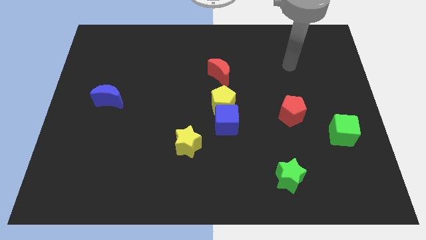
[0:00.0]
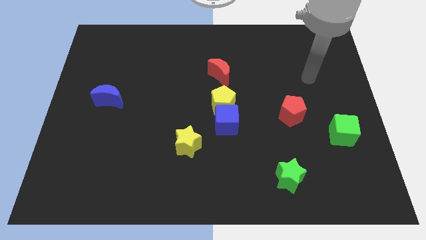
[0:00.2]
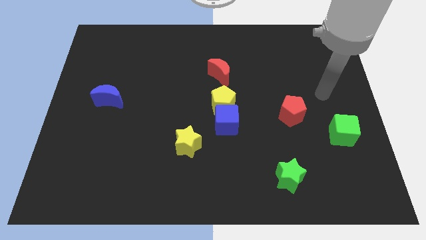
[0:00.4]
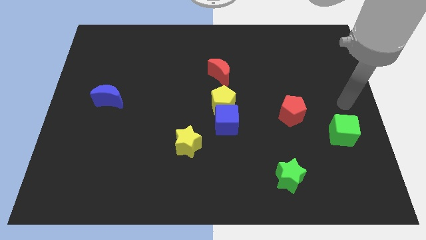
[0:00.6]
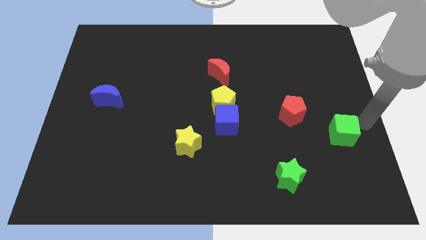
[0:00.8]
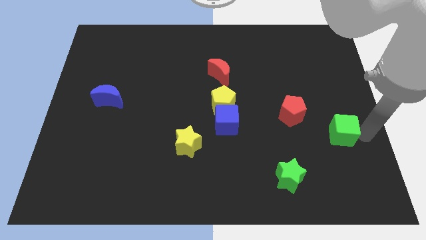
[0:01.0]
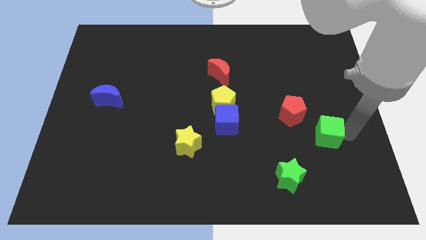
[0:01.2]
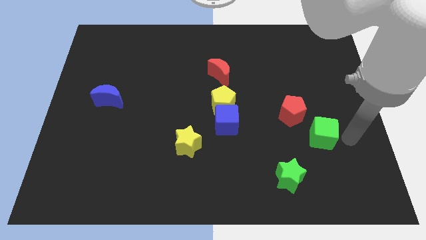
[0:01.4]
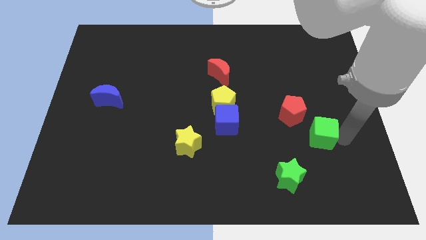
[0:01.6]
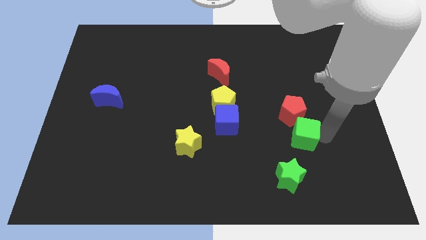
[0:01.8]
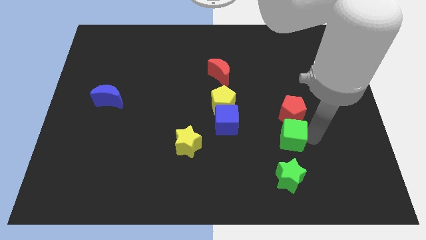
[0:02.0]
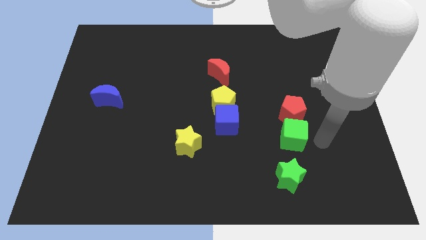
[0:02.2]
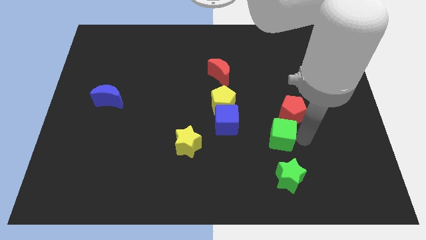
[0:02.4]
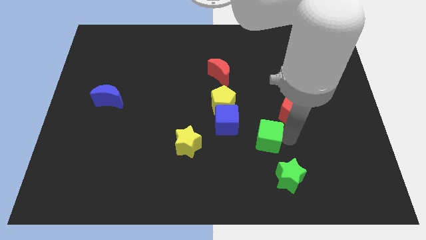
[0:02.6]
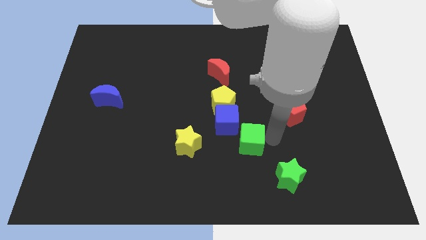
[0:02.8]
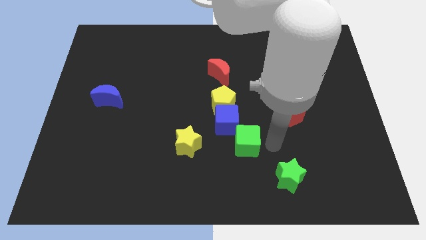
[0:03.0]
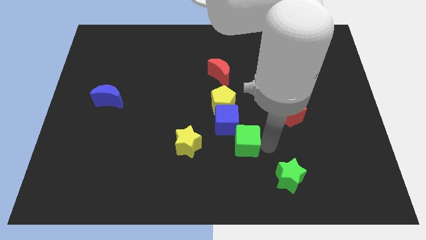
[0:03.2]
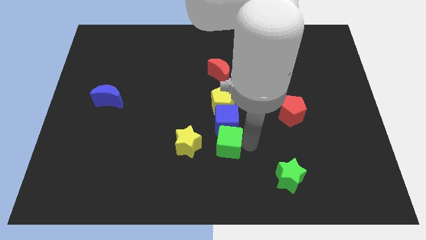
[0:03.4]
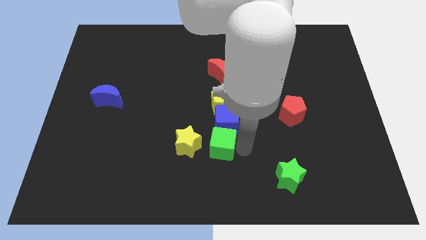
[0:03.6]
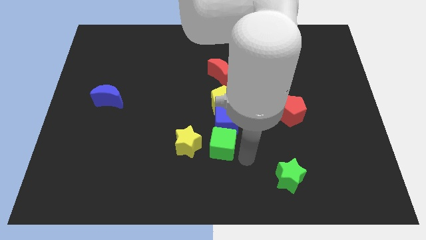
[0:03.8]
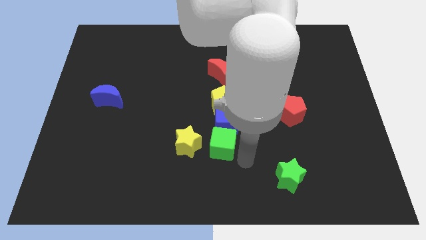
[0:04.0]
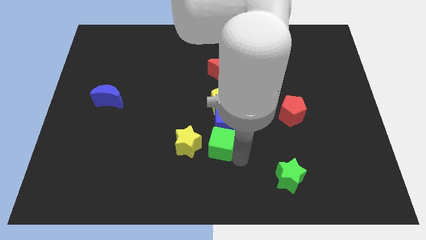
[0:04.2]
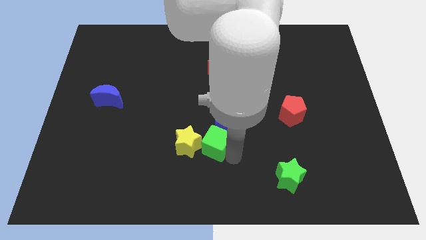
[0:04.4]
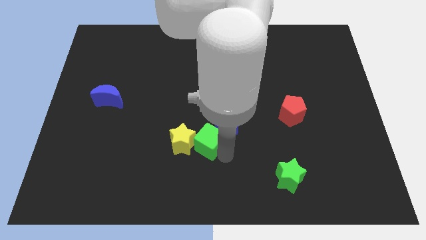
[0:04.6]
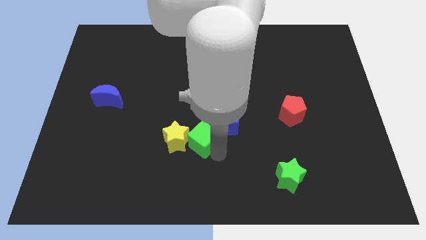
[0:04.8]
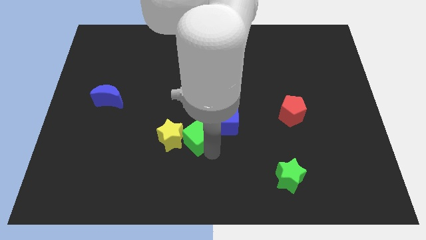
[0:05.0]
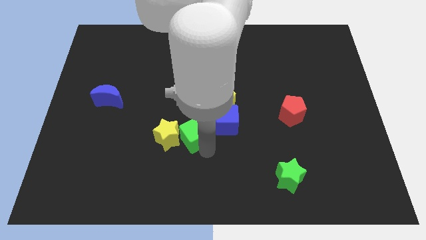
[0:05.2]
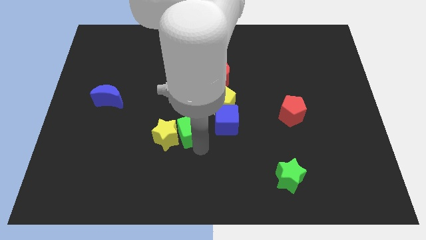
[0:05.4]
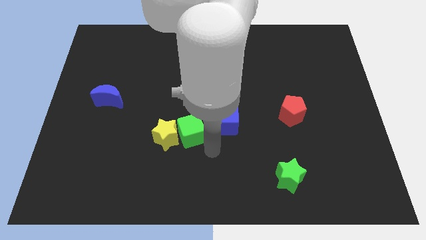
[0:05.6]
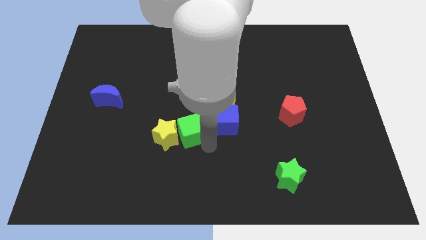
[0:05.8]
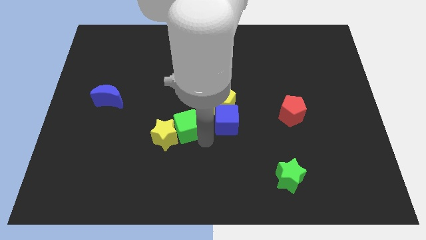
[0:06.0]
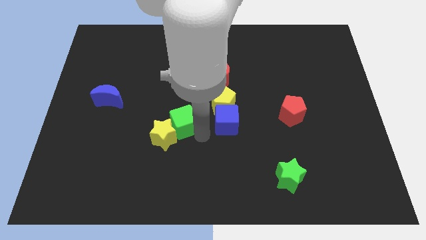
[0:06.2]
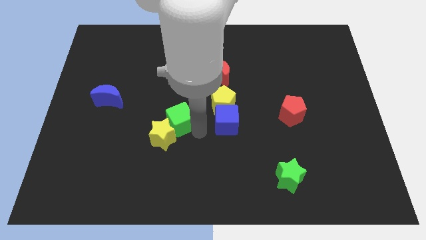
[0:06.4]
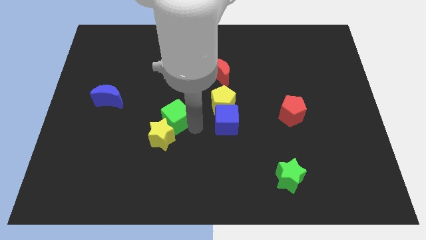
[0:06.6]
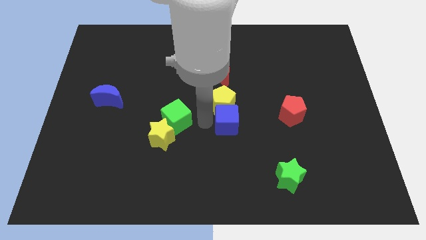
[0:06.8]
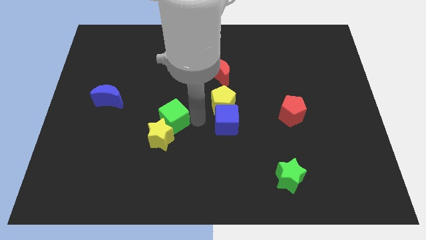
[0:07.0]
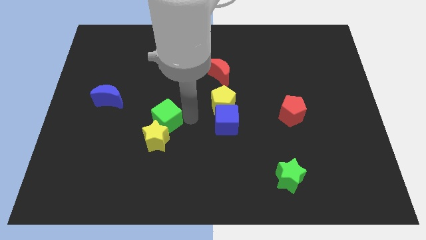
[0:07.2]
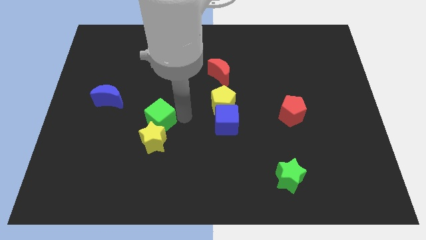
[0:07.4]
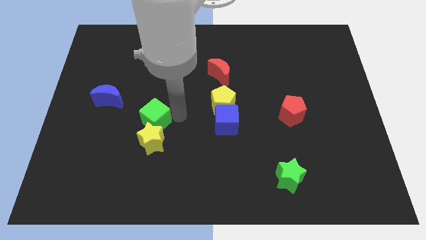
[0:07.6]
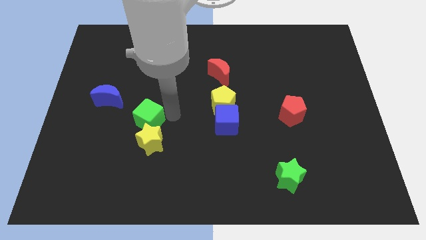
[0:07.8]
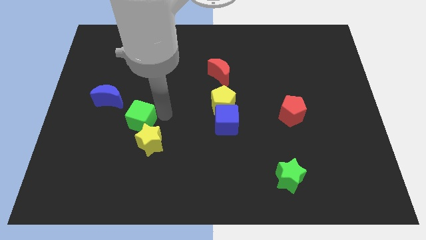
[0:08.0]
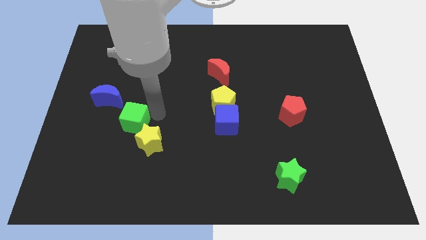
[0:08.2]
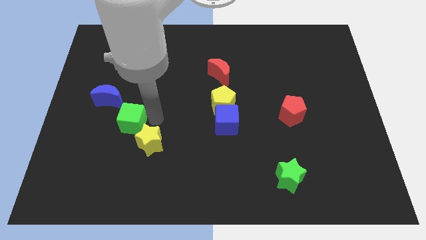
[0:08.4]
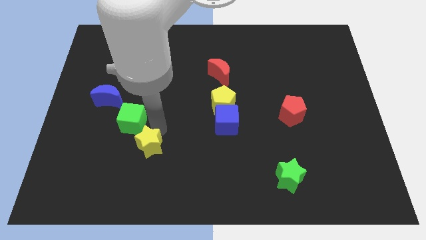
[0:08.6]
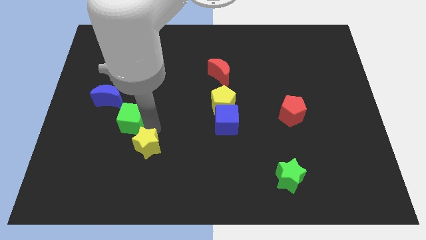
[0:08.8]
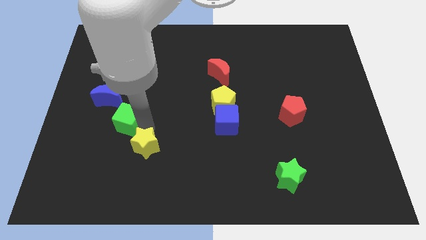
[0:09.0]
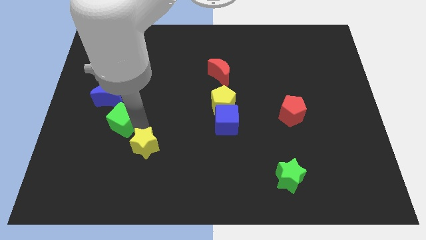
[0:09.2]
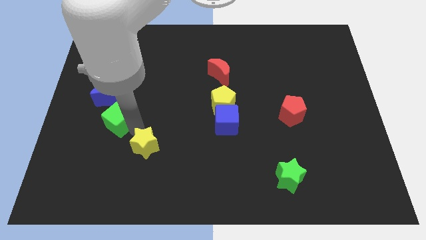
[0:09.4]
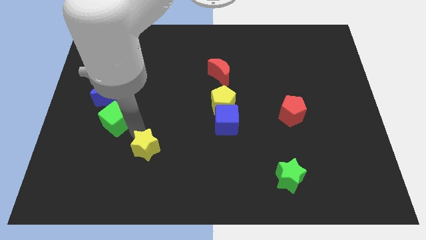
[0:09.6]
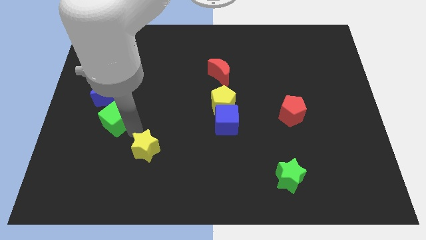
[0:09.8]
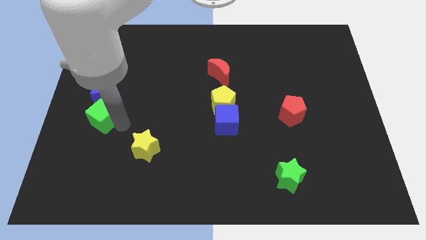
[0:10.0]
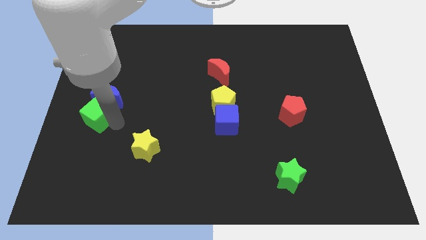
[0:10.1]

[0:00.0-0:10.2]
push the green cube to the left side
